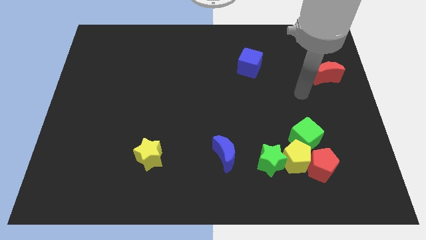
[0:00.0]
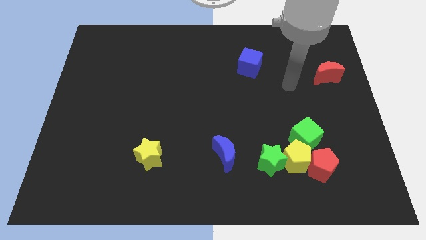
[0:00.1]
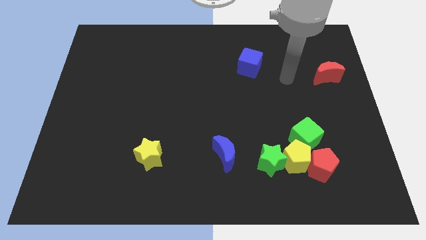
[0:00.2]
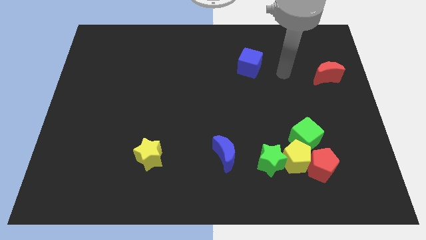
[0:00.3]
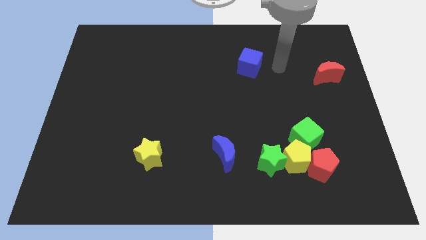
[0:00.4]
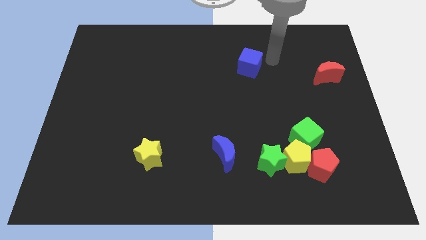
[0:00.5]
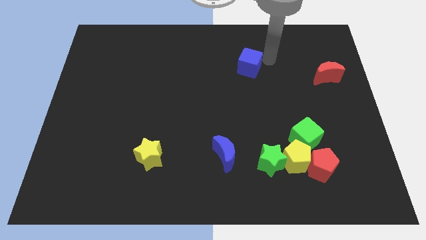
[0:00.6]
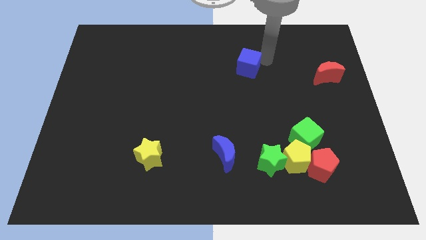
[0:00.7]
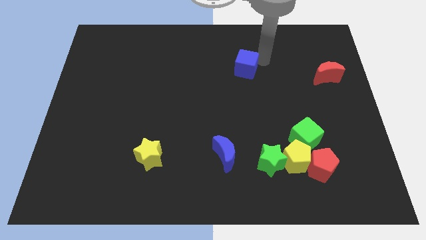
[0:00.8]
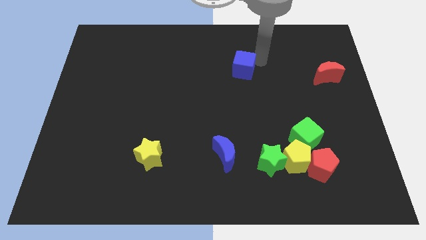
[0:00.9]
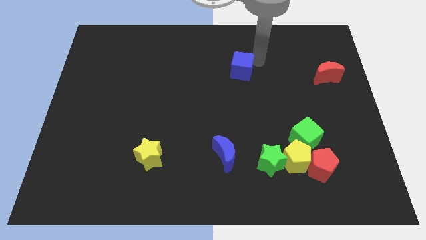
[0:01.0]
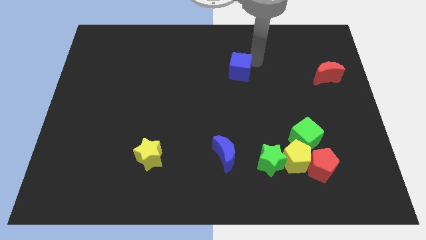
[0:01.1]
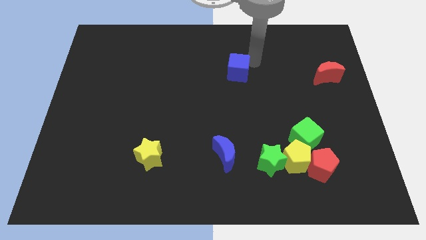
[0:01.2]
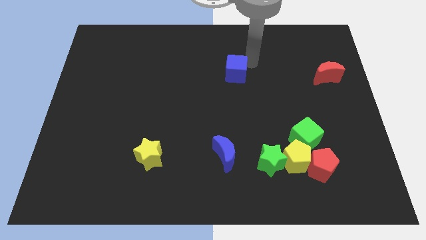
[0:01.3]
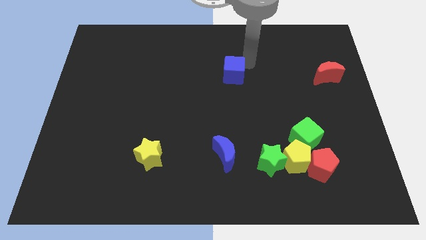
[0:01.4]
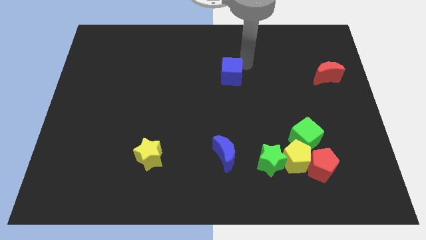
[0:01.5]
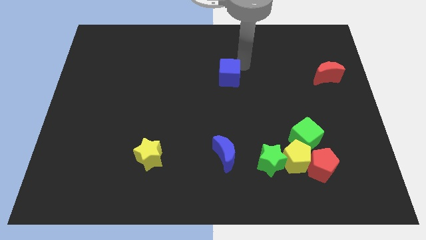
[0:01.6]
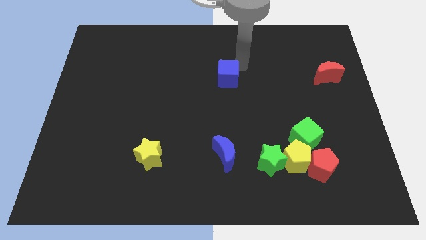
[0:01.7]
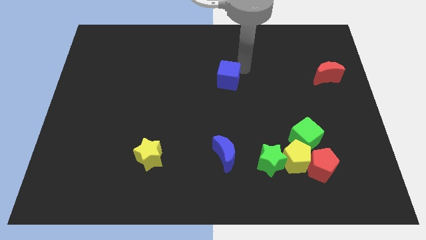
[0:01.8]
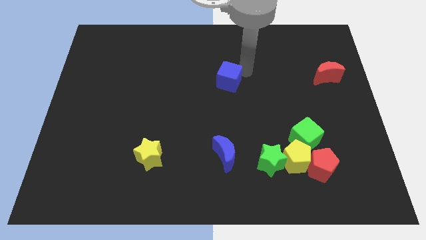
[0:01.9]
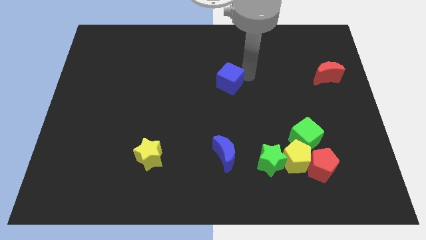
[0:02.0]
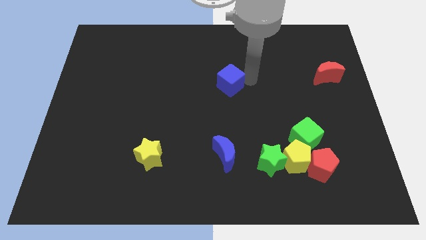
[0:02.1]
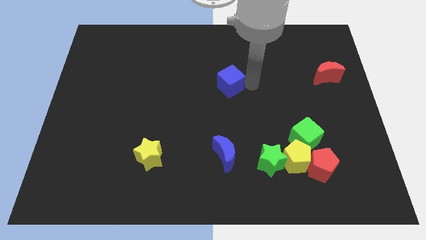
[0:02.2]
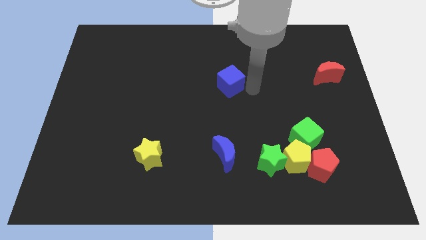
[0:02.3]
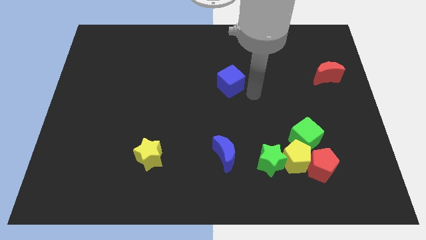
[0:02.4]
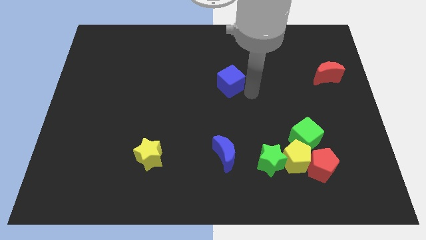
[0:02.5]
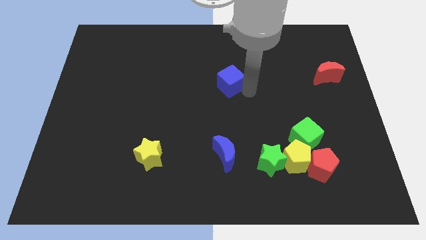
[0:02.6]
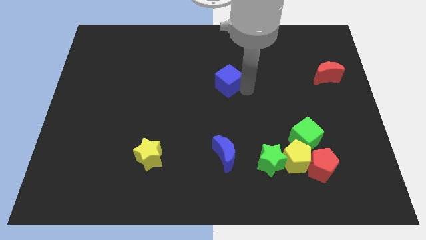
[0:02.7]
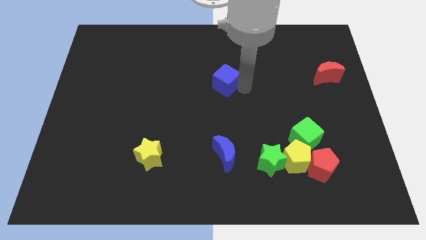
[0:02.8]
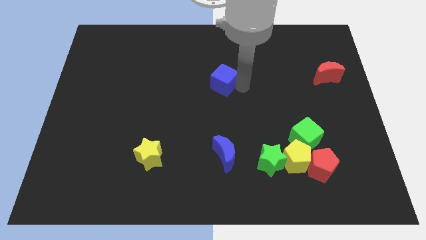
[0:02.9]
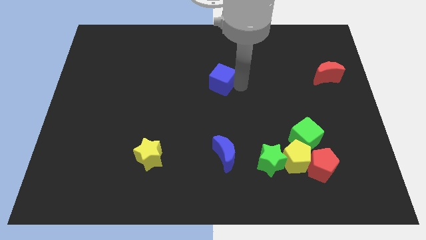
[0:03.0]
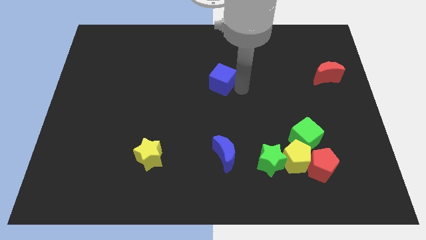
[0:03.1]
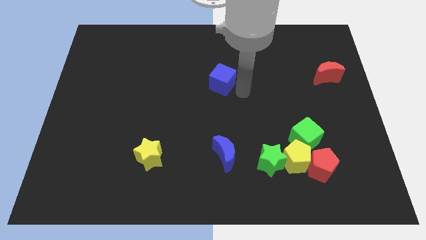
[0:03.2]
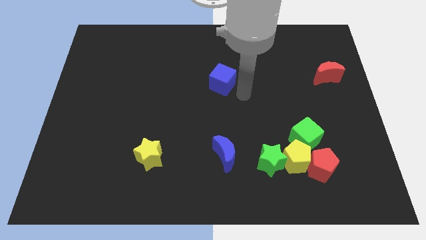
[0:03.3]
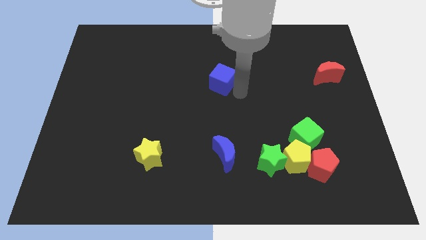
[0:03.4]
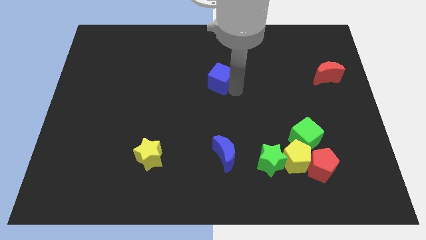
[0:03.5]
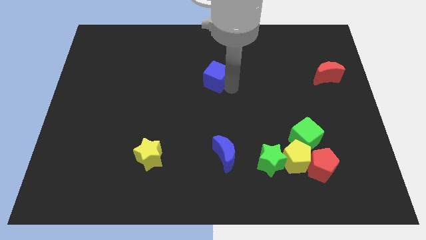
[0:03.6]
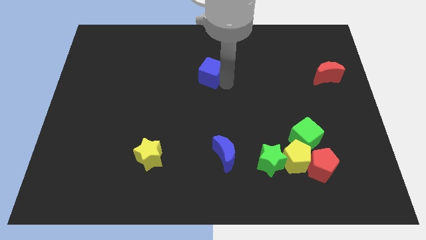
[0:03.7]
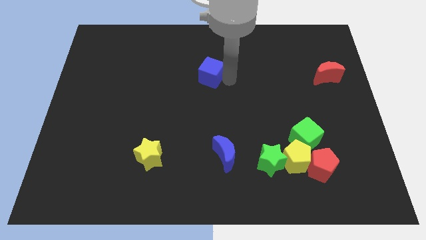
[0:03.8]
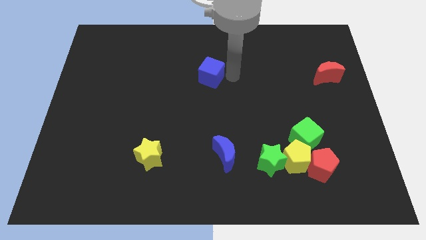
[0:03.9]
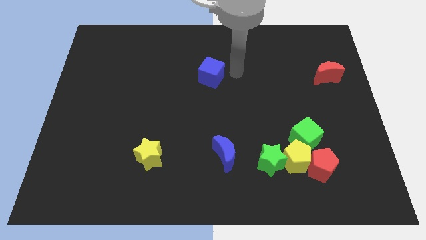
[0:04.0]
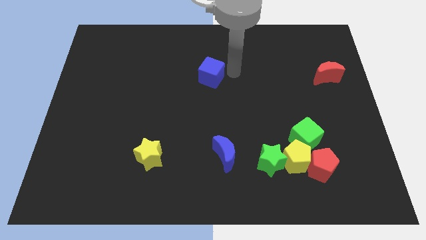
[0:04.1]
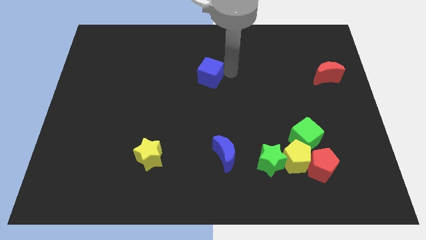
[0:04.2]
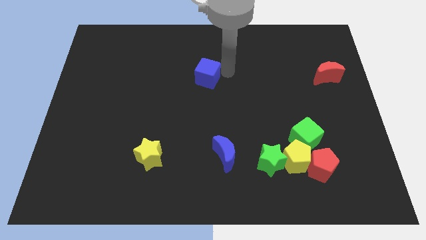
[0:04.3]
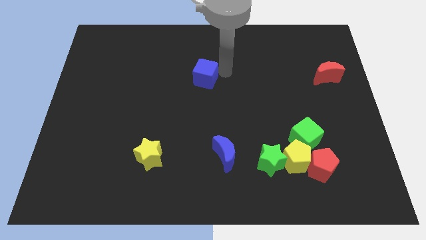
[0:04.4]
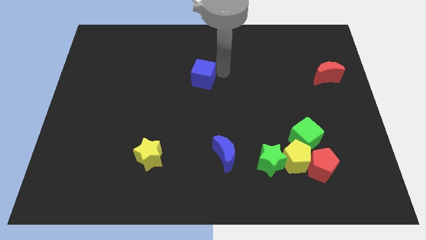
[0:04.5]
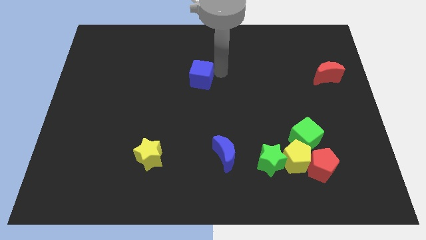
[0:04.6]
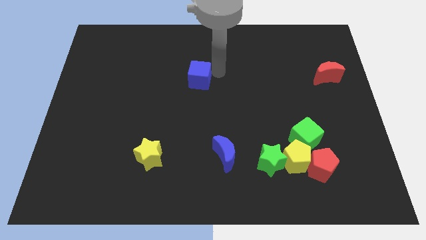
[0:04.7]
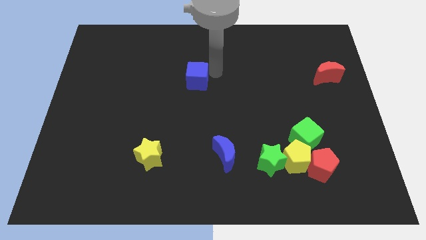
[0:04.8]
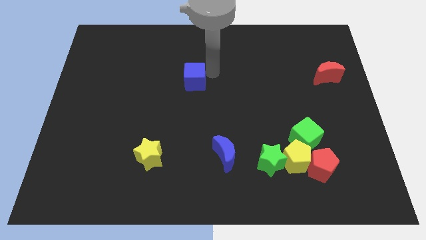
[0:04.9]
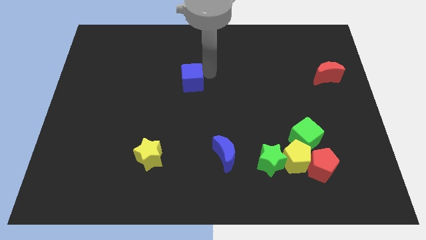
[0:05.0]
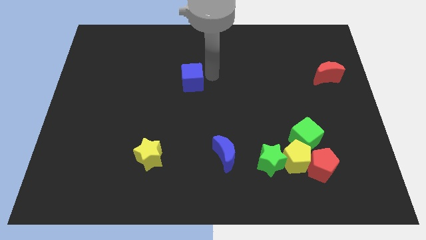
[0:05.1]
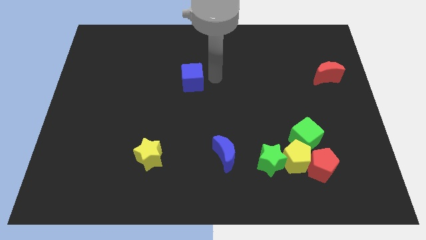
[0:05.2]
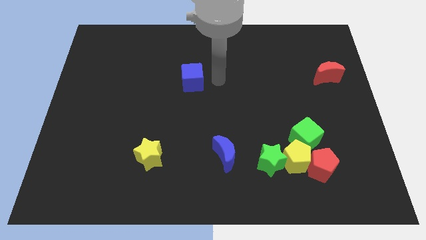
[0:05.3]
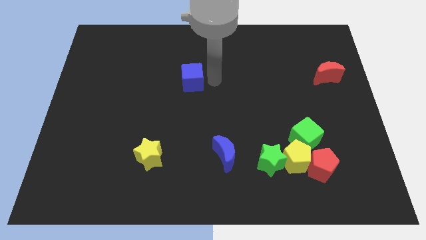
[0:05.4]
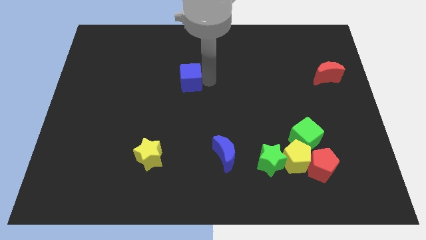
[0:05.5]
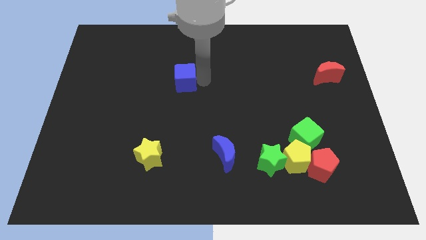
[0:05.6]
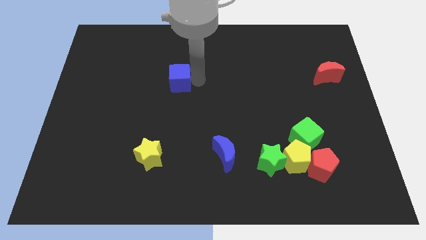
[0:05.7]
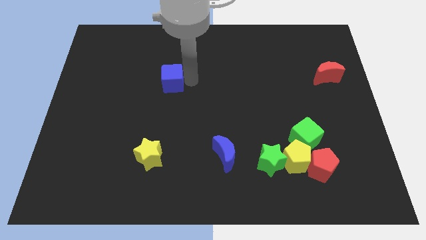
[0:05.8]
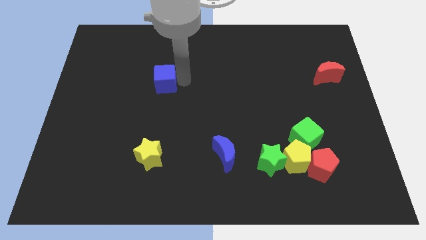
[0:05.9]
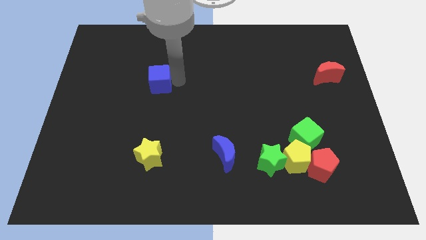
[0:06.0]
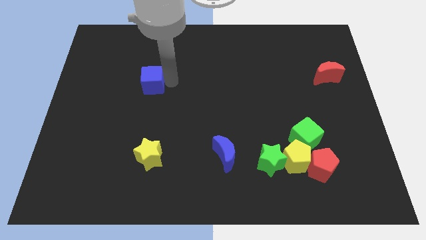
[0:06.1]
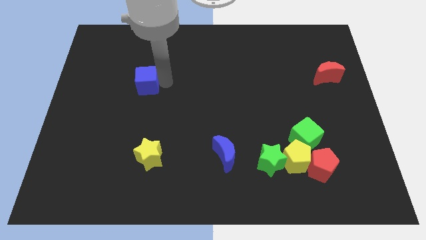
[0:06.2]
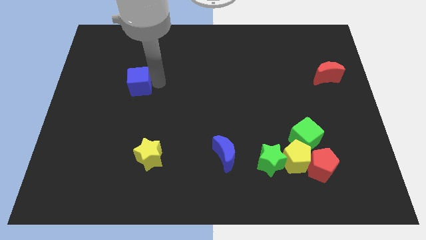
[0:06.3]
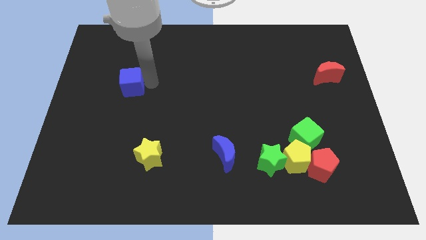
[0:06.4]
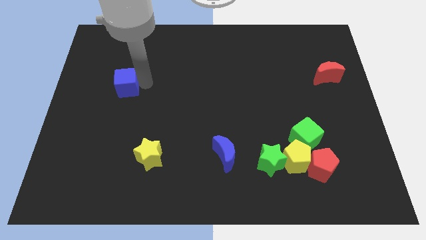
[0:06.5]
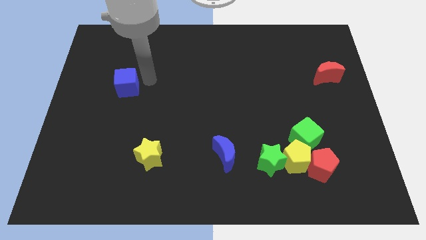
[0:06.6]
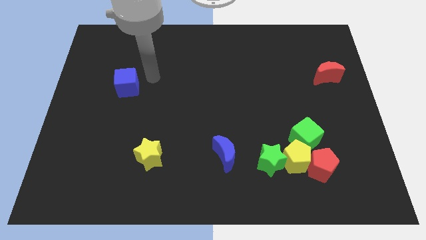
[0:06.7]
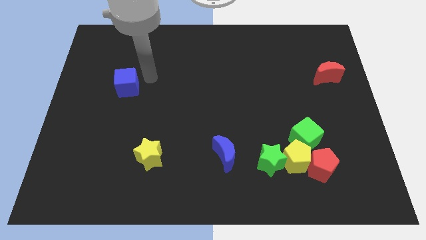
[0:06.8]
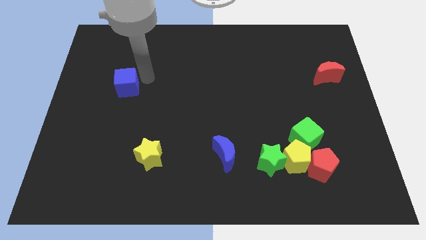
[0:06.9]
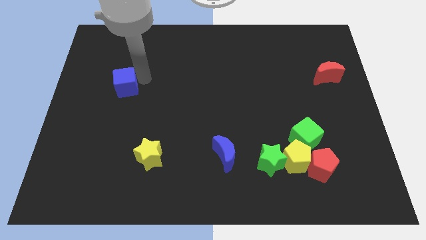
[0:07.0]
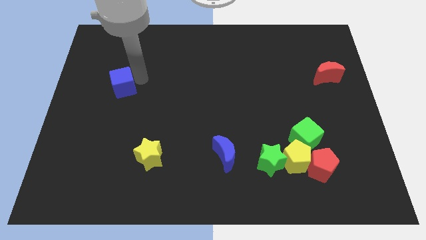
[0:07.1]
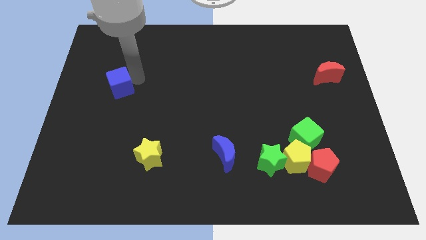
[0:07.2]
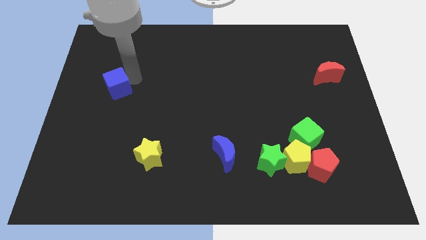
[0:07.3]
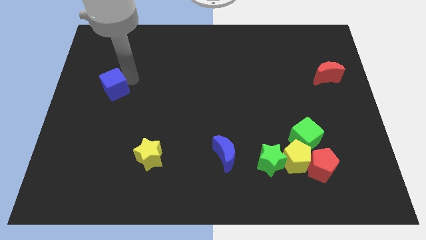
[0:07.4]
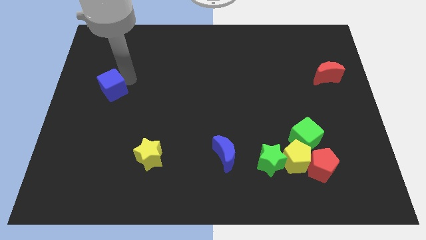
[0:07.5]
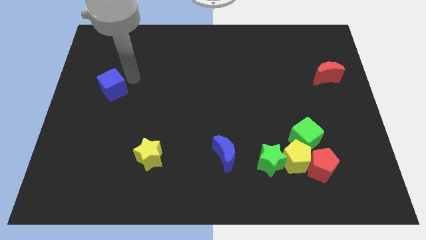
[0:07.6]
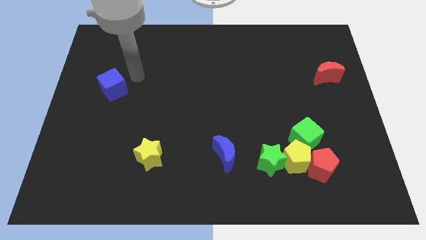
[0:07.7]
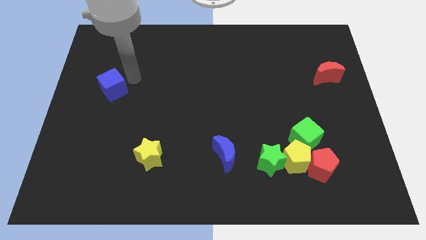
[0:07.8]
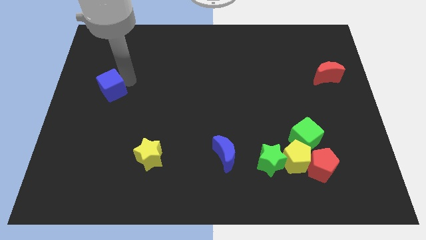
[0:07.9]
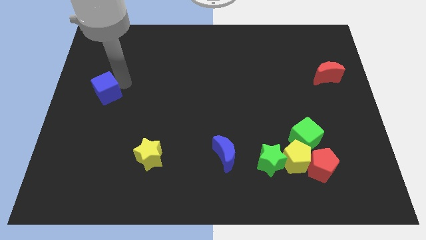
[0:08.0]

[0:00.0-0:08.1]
push the blue cube to the left side
